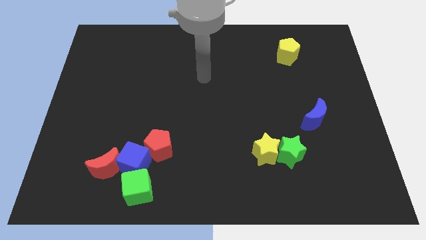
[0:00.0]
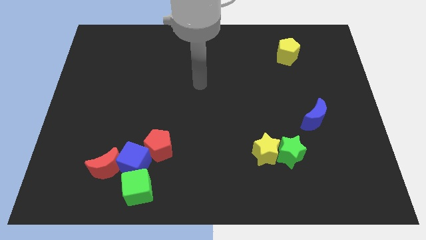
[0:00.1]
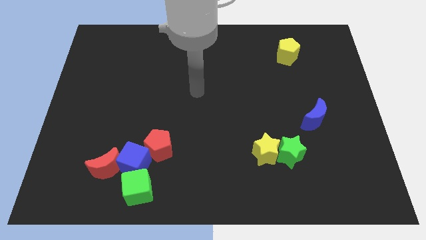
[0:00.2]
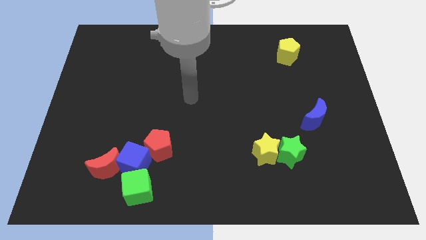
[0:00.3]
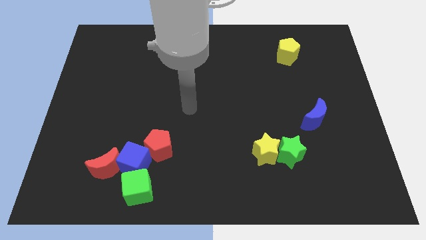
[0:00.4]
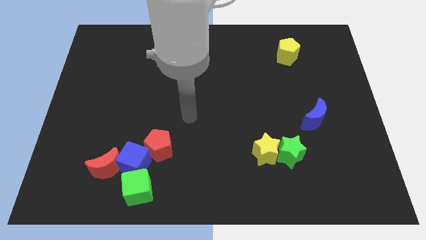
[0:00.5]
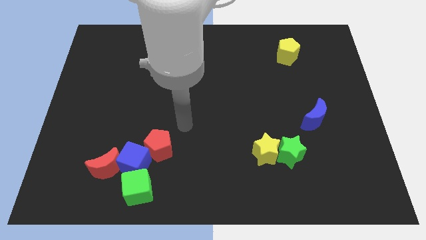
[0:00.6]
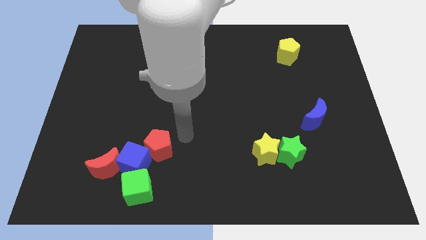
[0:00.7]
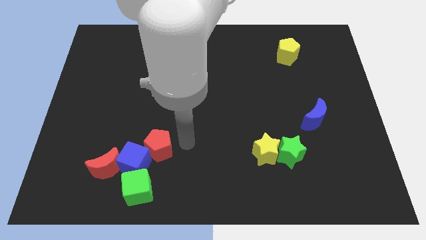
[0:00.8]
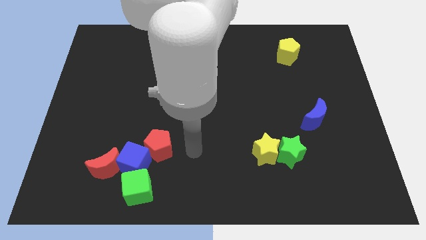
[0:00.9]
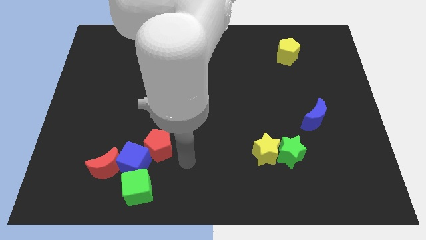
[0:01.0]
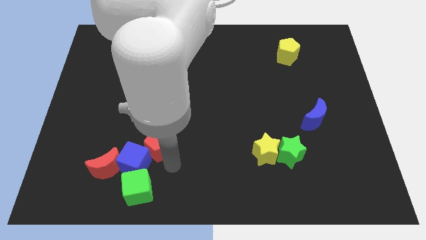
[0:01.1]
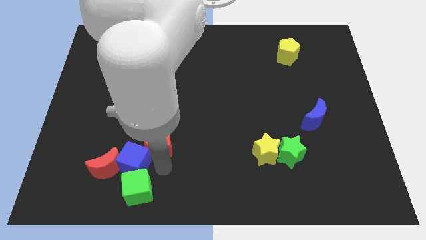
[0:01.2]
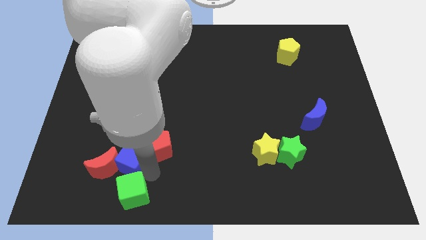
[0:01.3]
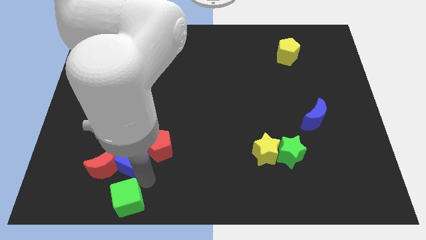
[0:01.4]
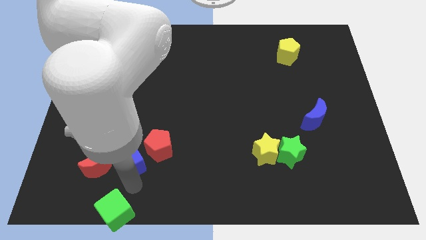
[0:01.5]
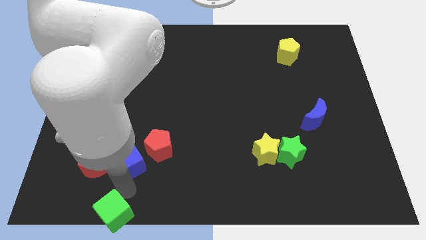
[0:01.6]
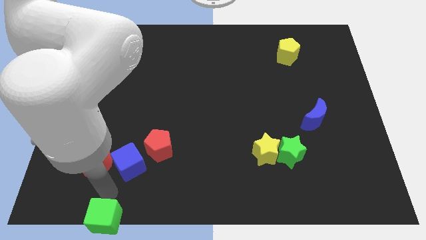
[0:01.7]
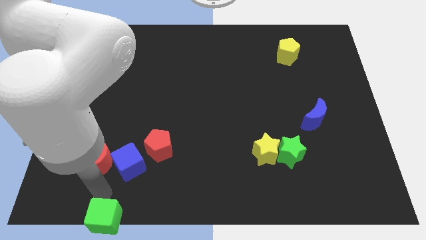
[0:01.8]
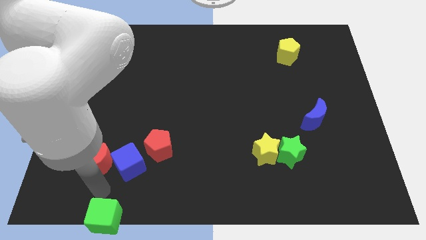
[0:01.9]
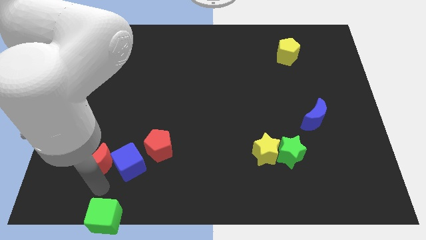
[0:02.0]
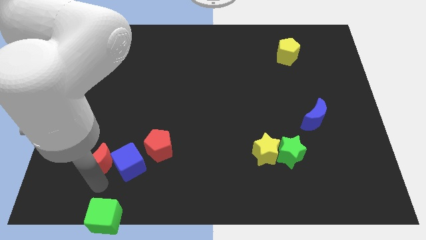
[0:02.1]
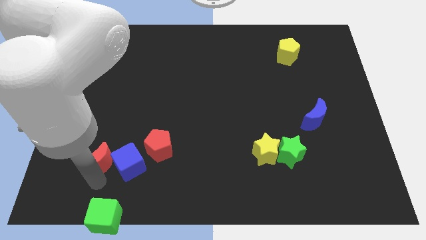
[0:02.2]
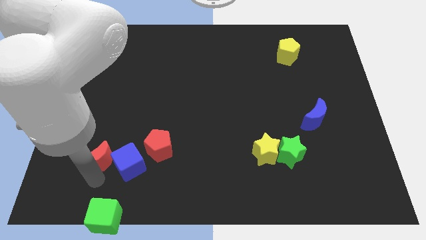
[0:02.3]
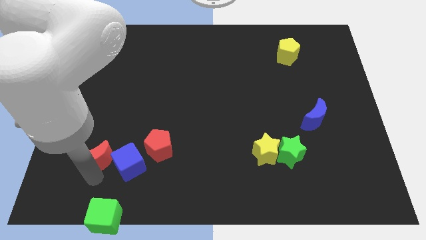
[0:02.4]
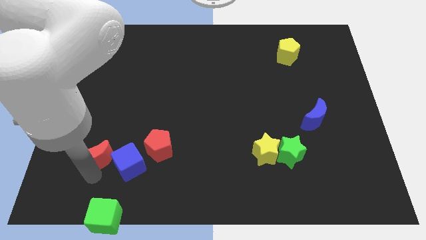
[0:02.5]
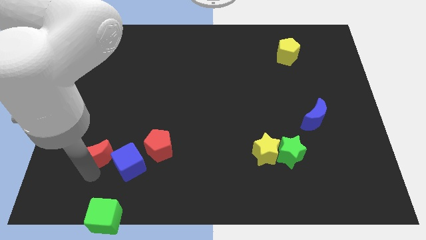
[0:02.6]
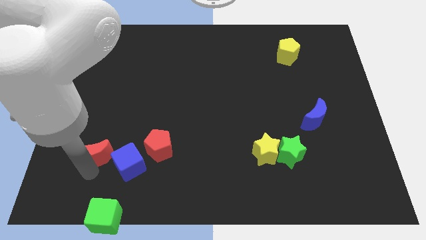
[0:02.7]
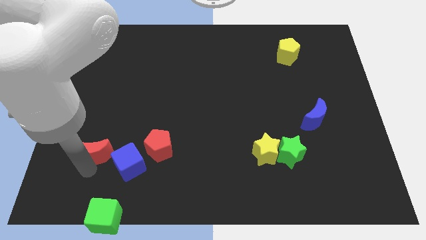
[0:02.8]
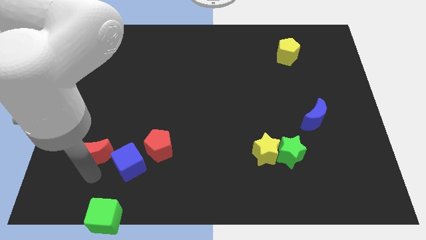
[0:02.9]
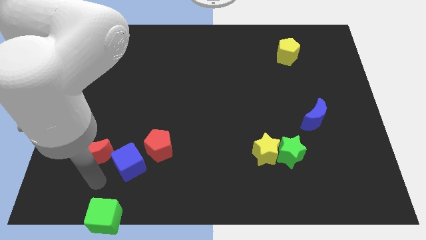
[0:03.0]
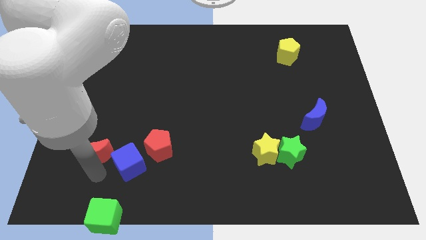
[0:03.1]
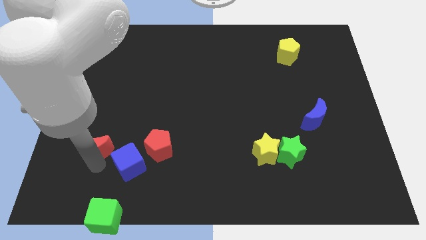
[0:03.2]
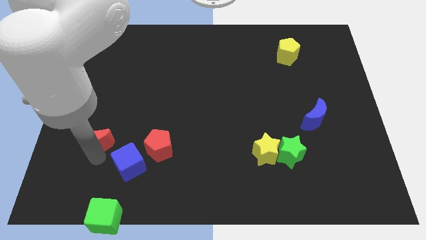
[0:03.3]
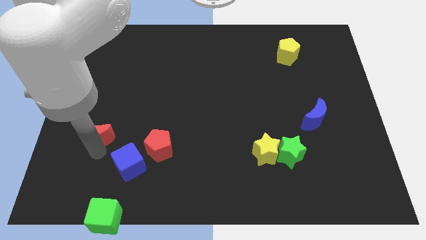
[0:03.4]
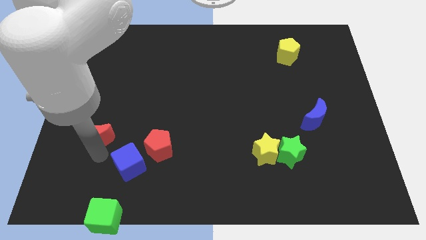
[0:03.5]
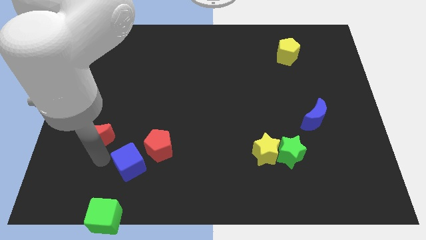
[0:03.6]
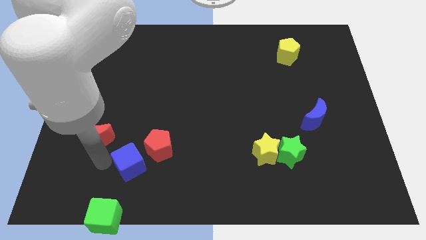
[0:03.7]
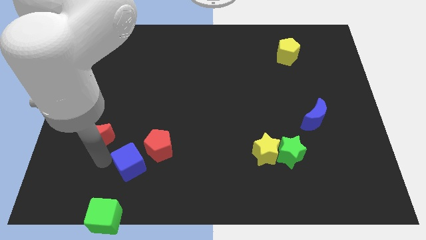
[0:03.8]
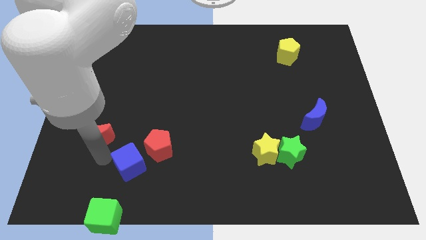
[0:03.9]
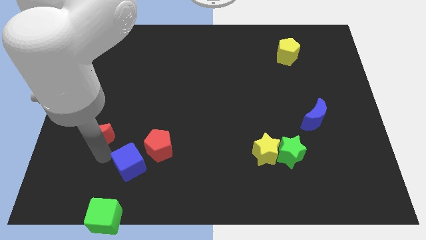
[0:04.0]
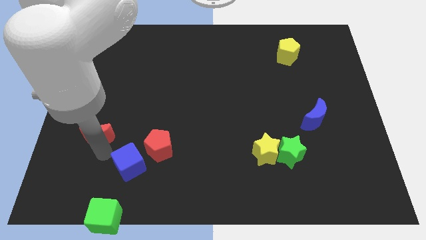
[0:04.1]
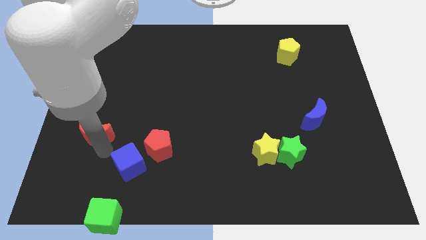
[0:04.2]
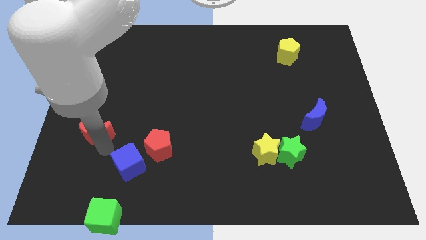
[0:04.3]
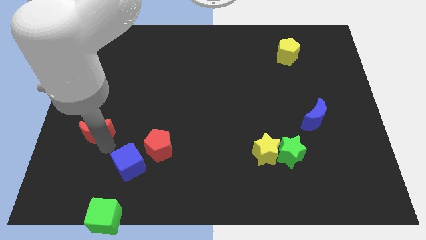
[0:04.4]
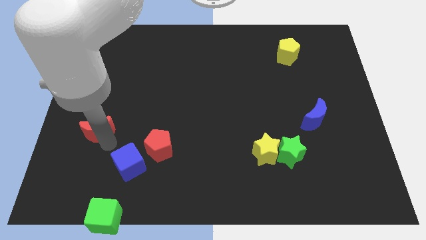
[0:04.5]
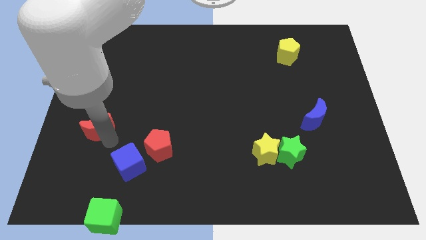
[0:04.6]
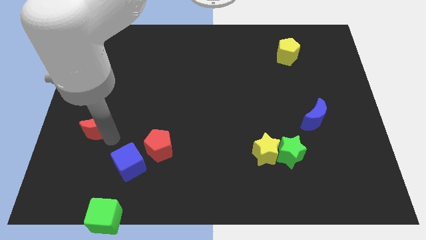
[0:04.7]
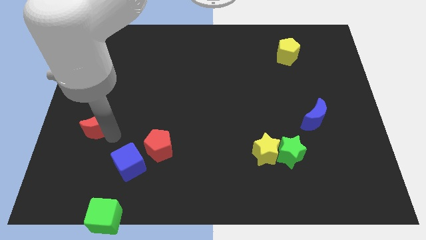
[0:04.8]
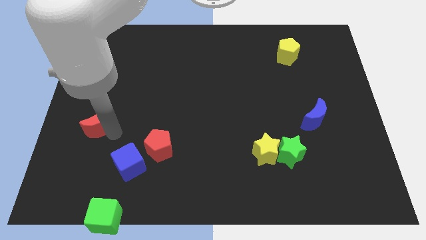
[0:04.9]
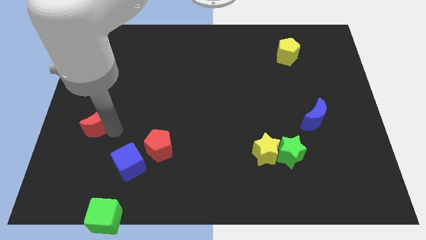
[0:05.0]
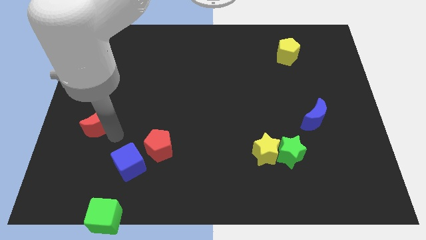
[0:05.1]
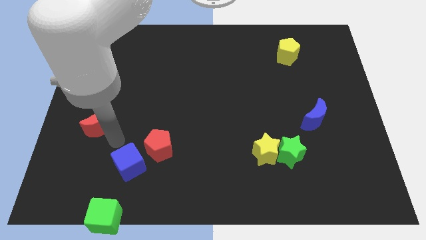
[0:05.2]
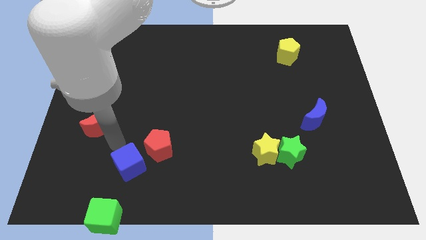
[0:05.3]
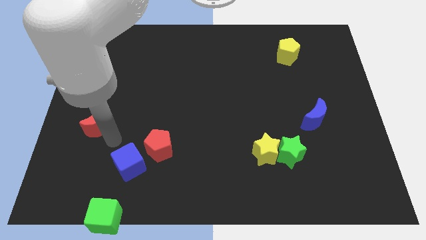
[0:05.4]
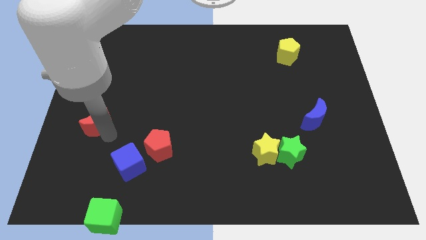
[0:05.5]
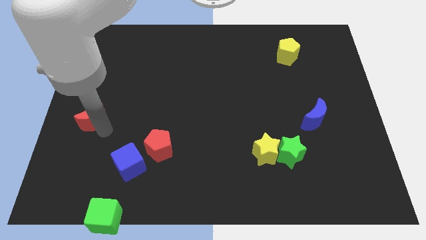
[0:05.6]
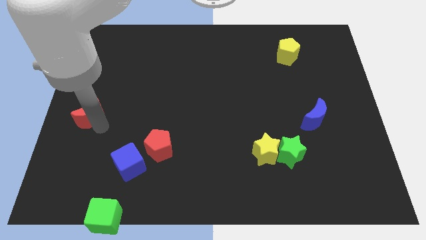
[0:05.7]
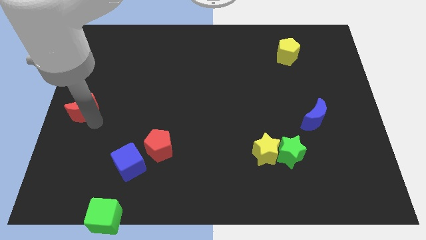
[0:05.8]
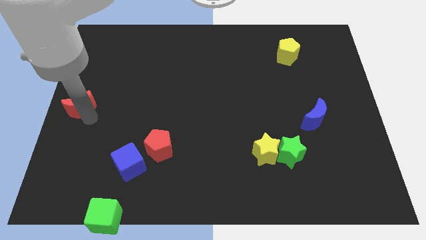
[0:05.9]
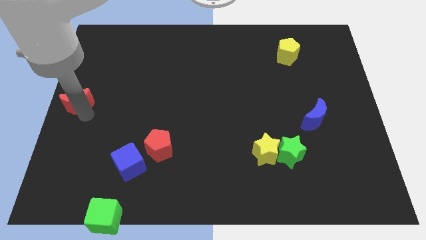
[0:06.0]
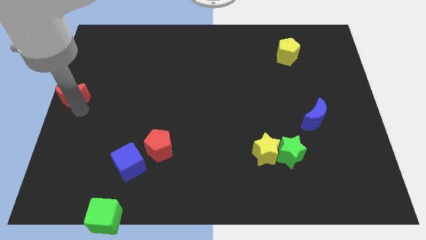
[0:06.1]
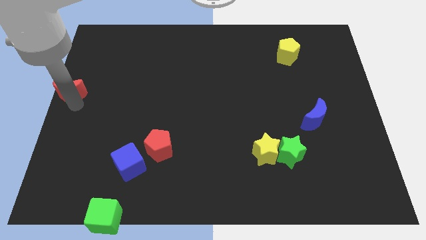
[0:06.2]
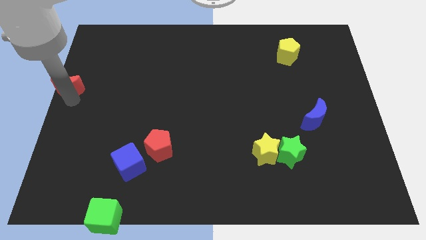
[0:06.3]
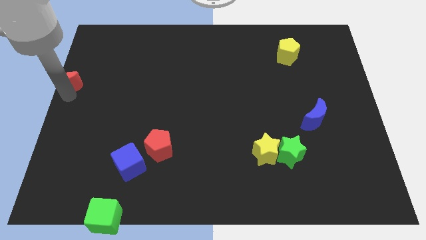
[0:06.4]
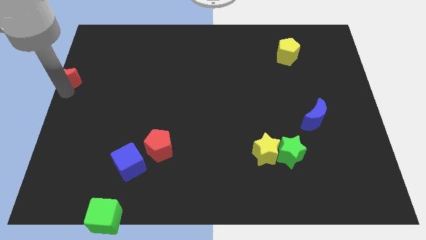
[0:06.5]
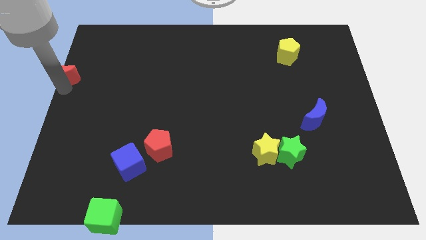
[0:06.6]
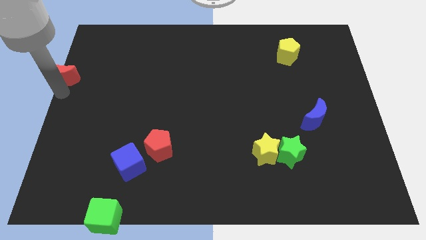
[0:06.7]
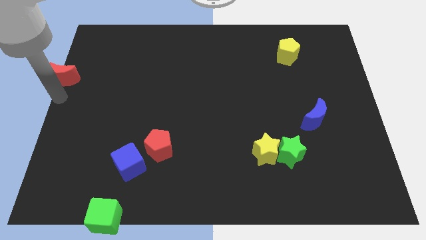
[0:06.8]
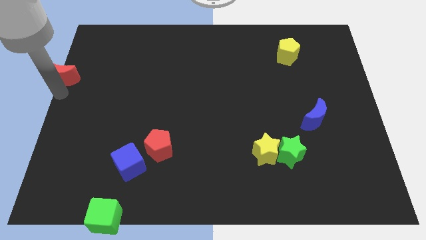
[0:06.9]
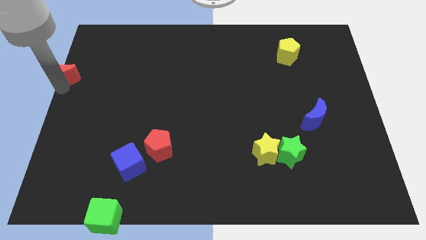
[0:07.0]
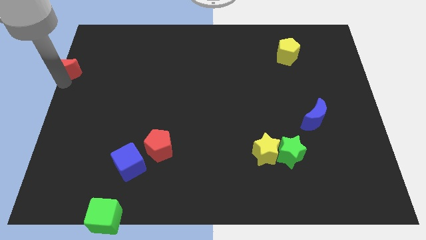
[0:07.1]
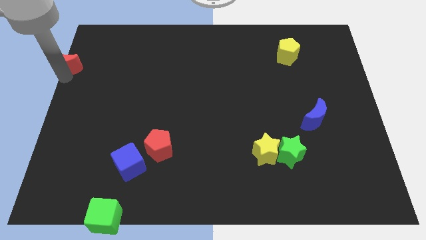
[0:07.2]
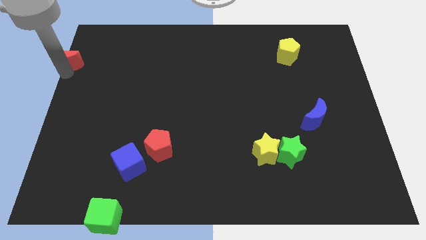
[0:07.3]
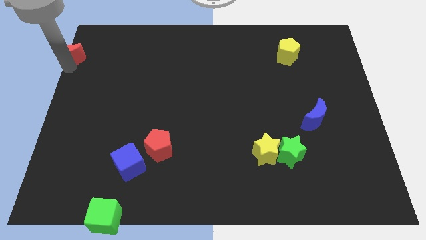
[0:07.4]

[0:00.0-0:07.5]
put the red moon to the upper left corner
